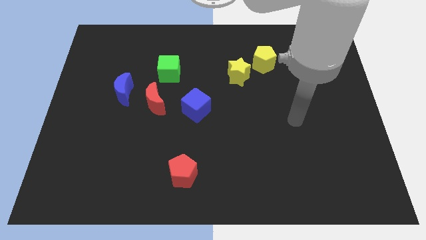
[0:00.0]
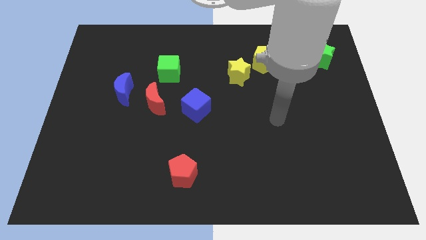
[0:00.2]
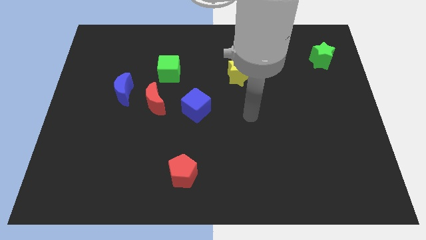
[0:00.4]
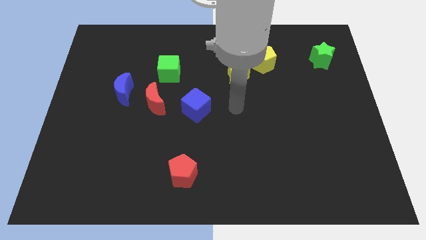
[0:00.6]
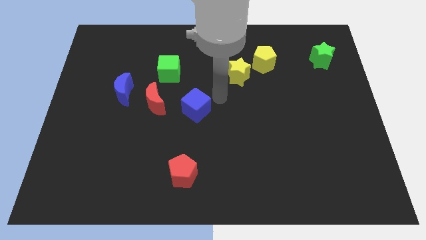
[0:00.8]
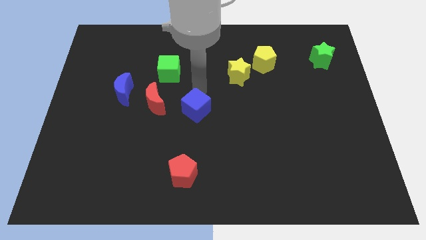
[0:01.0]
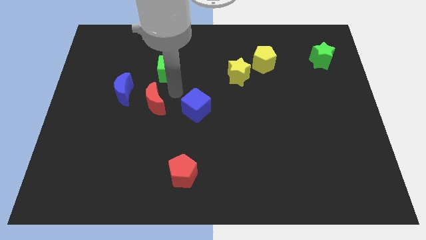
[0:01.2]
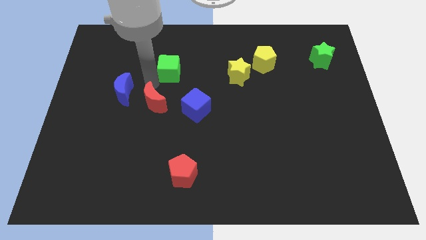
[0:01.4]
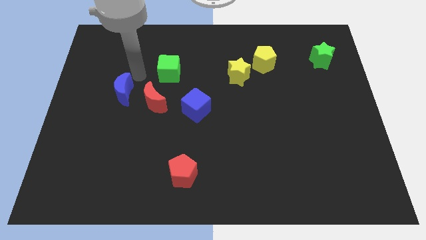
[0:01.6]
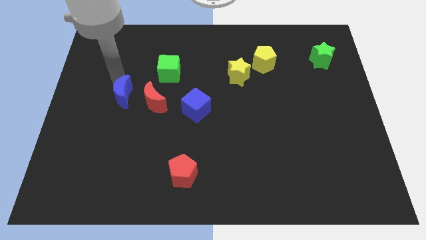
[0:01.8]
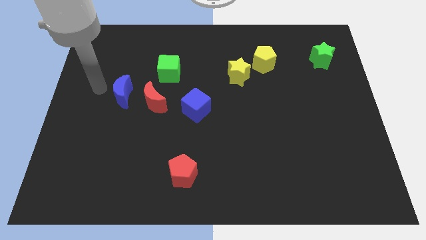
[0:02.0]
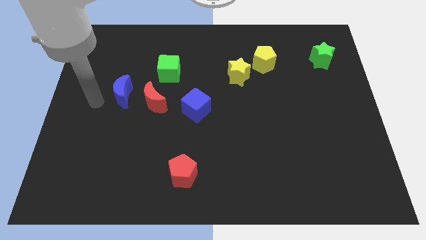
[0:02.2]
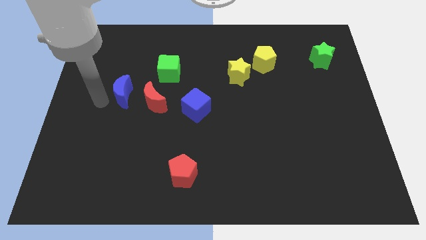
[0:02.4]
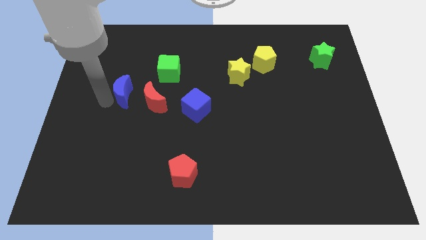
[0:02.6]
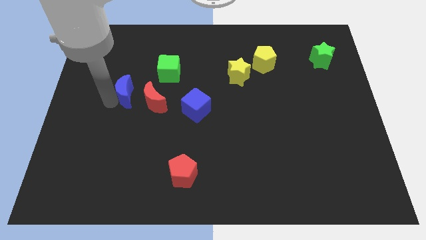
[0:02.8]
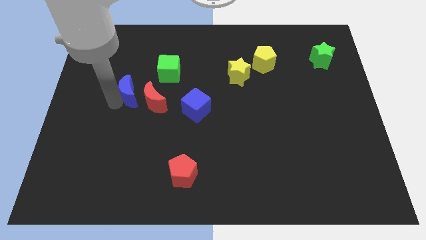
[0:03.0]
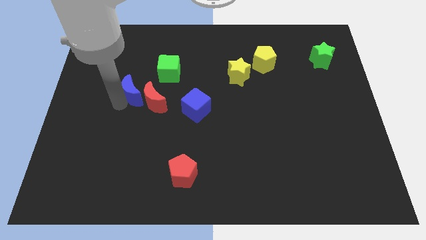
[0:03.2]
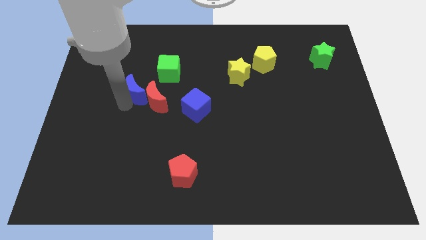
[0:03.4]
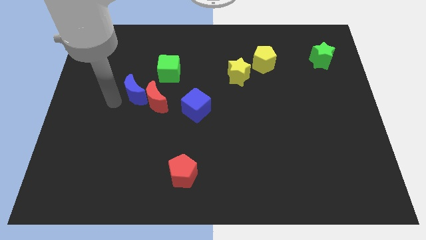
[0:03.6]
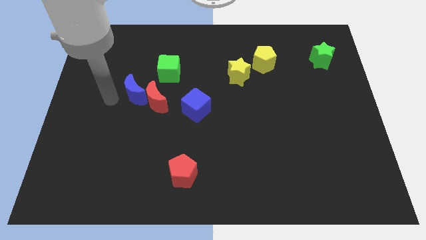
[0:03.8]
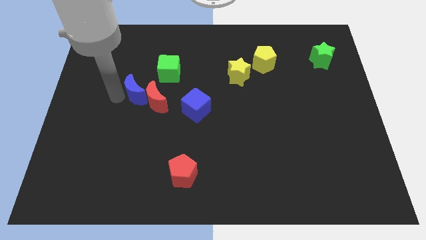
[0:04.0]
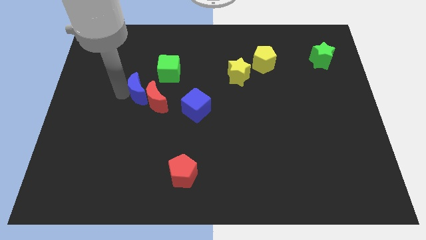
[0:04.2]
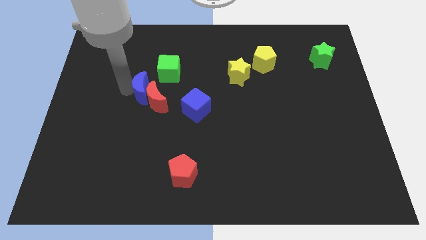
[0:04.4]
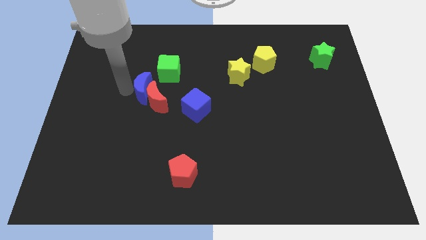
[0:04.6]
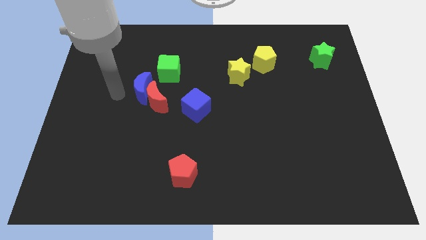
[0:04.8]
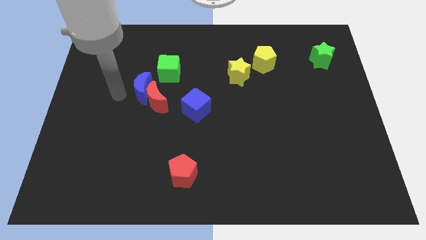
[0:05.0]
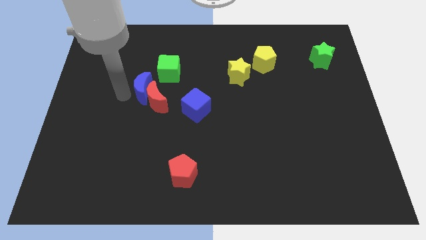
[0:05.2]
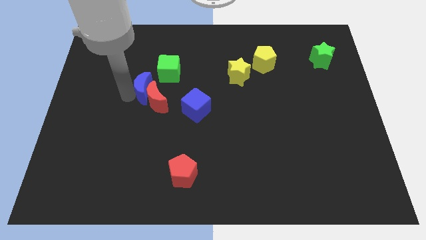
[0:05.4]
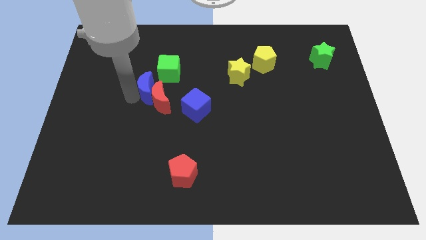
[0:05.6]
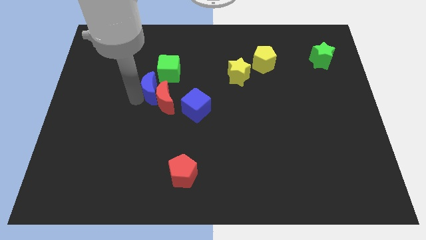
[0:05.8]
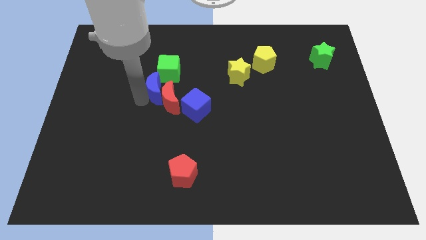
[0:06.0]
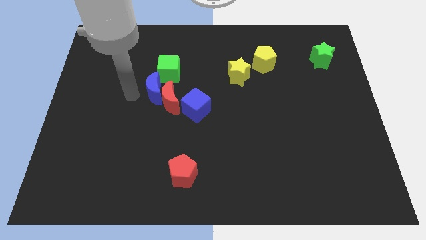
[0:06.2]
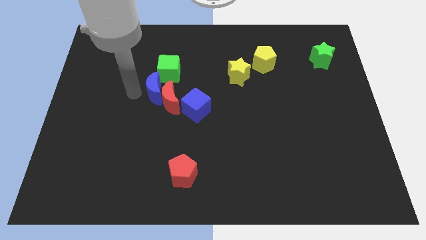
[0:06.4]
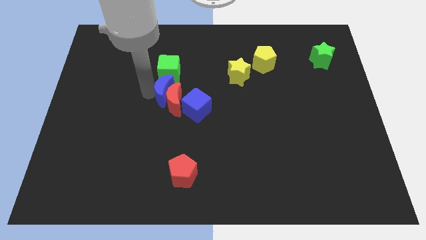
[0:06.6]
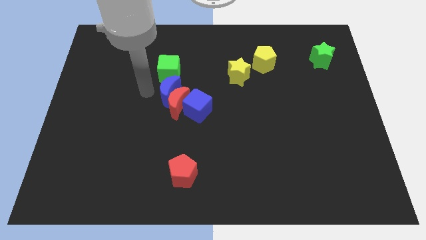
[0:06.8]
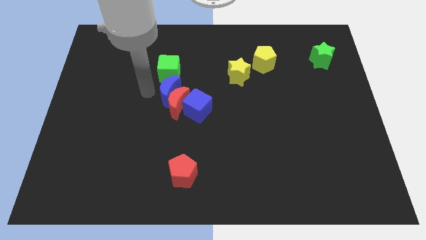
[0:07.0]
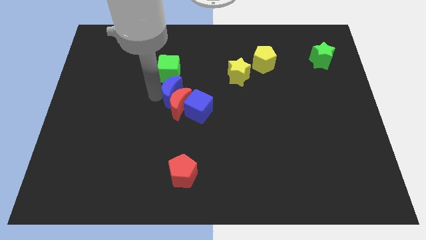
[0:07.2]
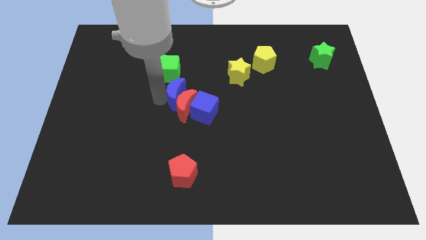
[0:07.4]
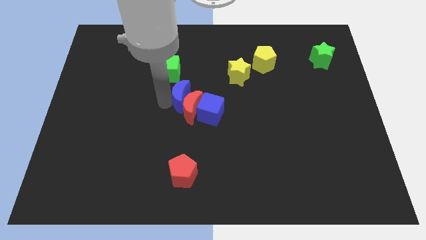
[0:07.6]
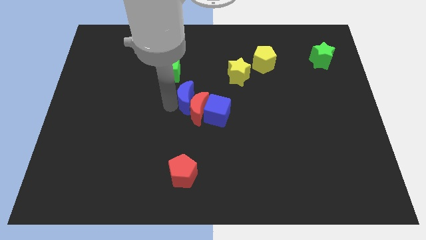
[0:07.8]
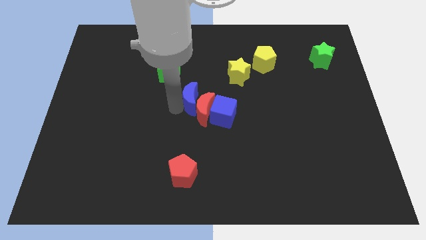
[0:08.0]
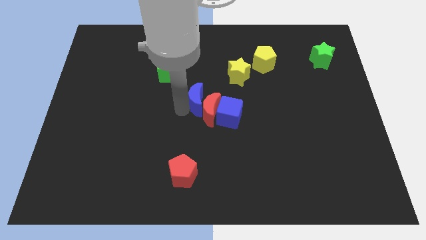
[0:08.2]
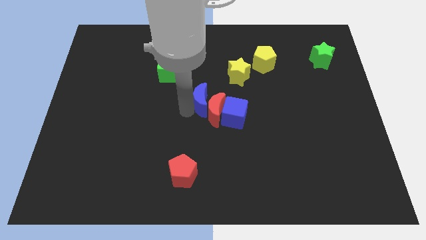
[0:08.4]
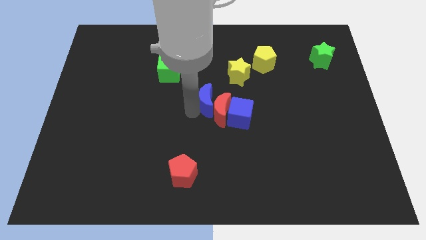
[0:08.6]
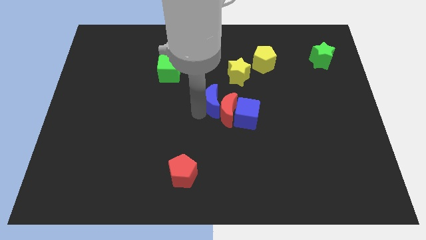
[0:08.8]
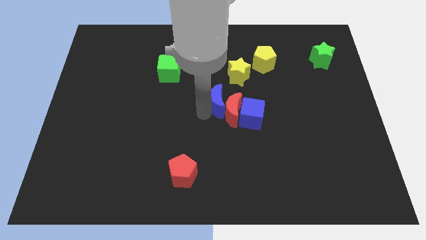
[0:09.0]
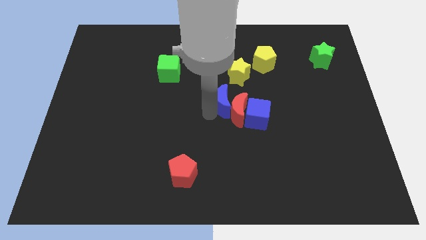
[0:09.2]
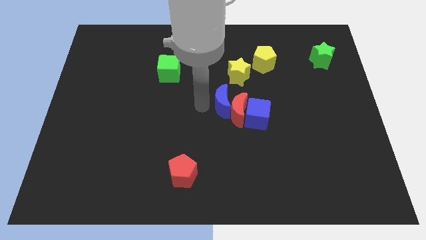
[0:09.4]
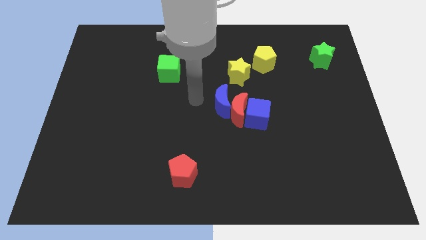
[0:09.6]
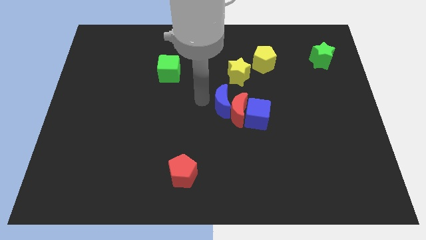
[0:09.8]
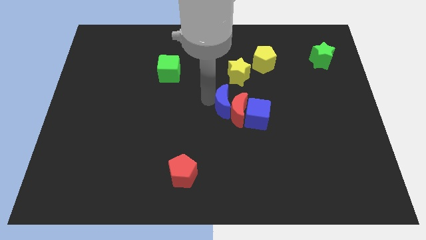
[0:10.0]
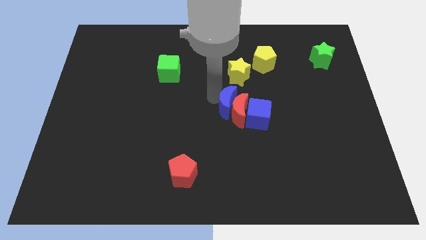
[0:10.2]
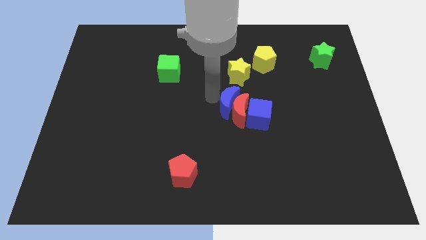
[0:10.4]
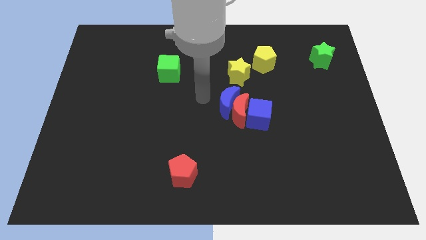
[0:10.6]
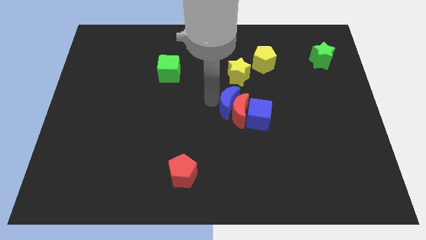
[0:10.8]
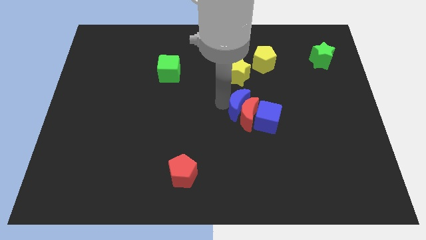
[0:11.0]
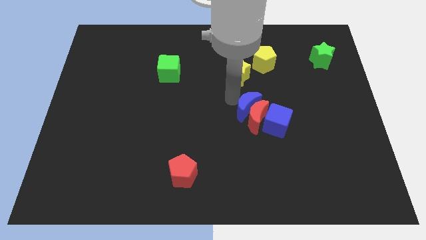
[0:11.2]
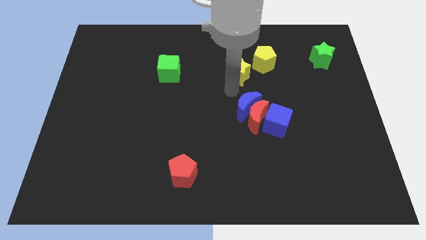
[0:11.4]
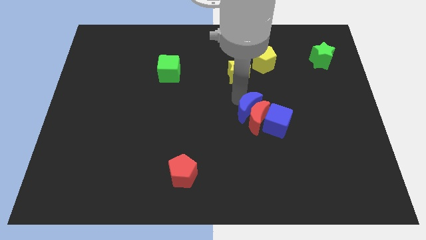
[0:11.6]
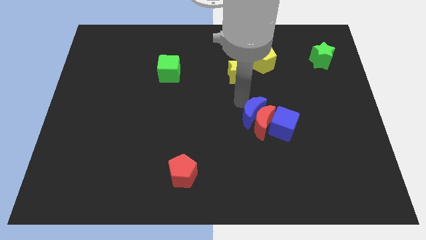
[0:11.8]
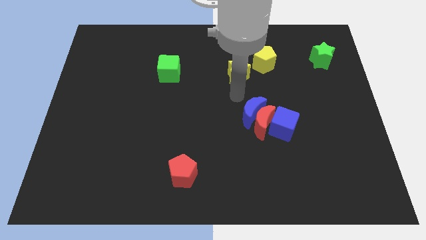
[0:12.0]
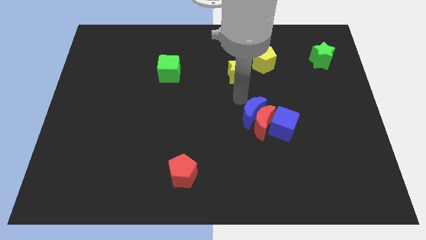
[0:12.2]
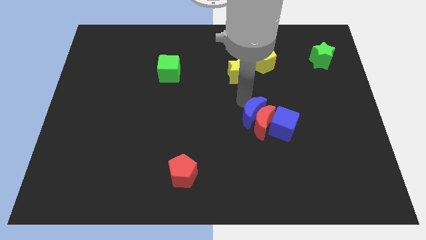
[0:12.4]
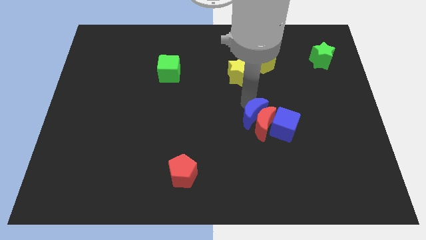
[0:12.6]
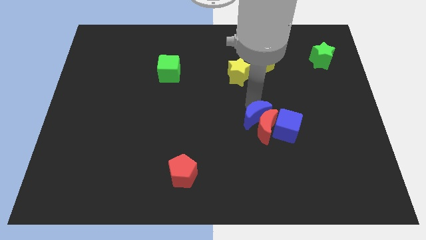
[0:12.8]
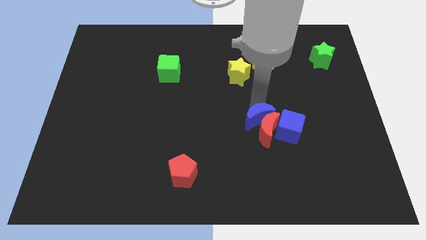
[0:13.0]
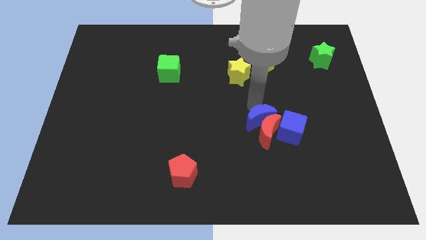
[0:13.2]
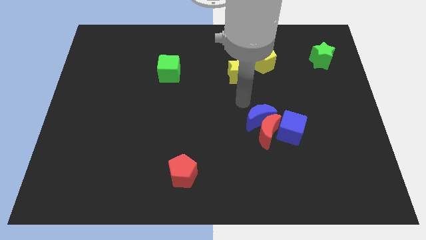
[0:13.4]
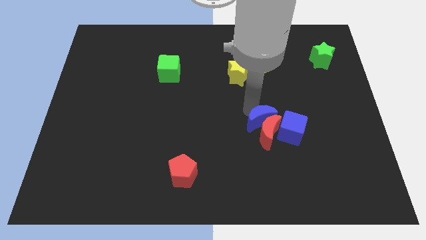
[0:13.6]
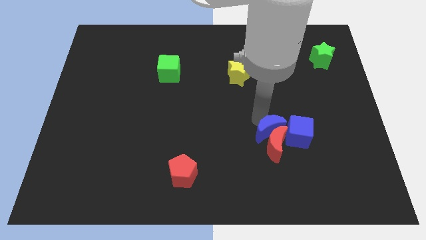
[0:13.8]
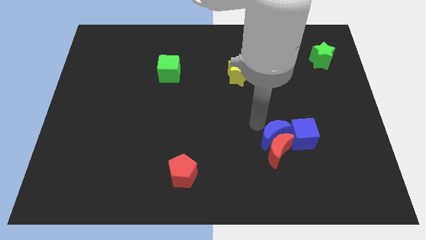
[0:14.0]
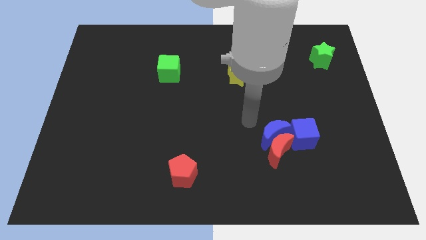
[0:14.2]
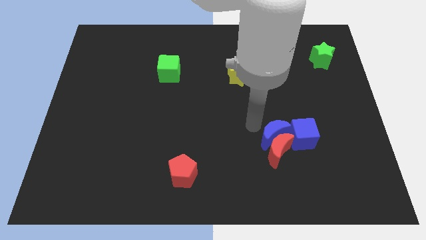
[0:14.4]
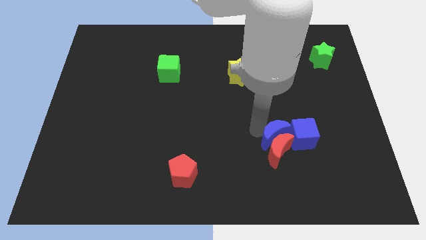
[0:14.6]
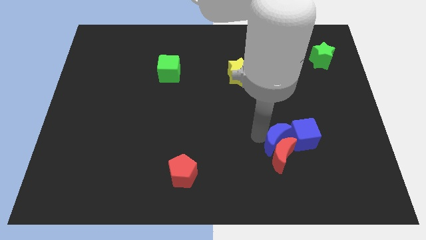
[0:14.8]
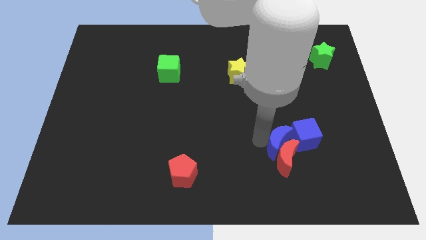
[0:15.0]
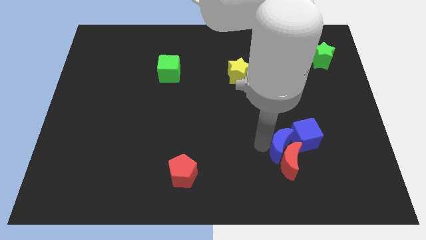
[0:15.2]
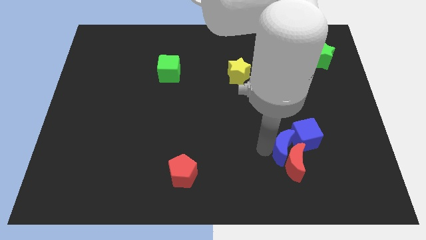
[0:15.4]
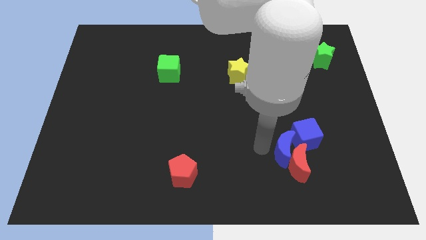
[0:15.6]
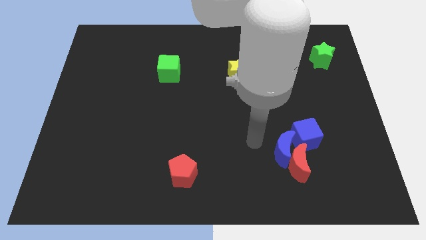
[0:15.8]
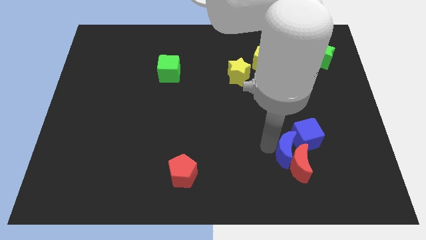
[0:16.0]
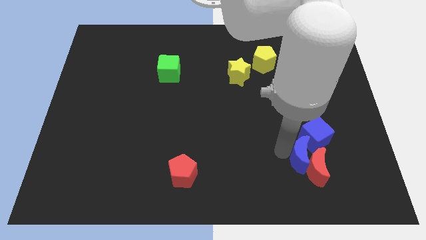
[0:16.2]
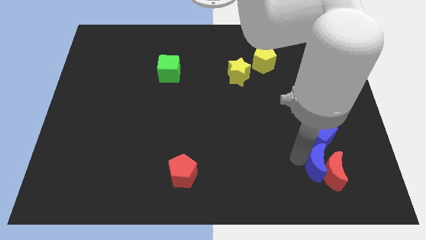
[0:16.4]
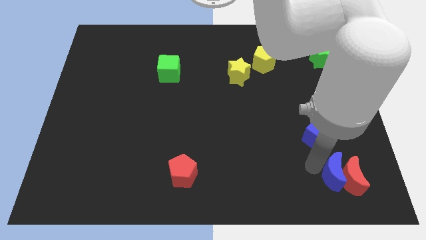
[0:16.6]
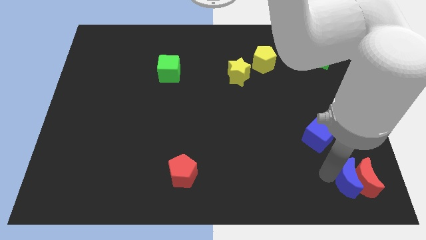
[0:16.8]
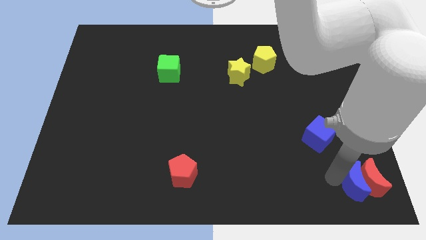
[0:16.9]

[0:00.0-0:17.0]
push the blue moon to the bottom right of the board
